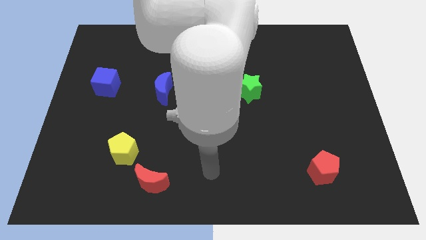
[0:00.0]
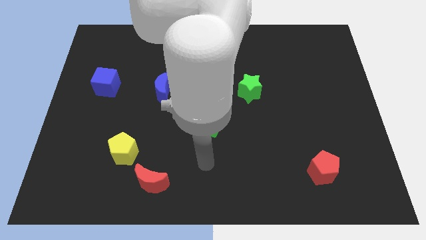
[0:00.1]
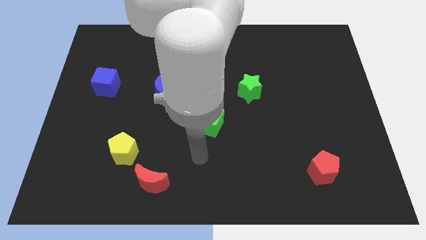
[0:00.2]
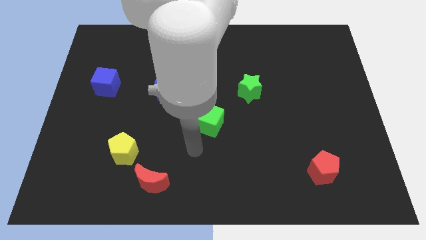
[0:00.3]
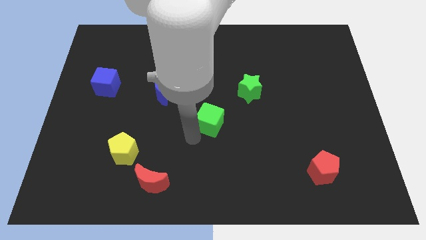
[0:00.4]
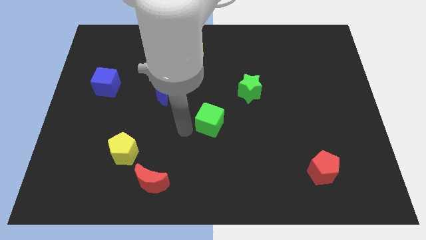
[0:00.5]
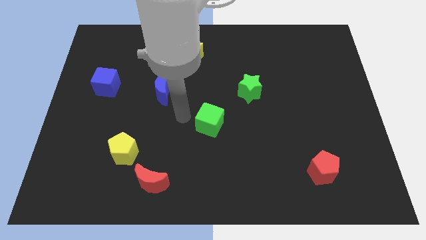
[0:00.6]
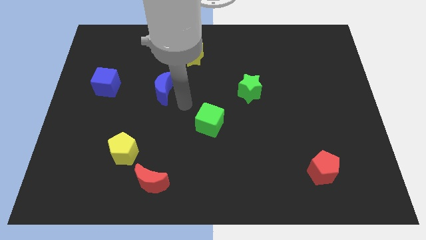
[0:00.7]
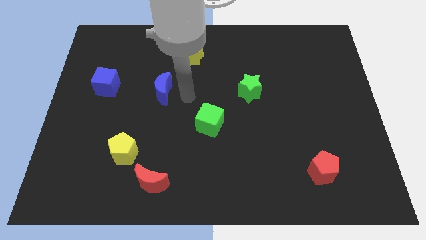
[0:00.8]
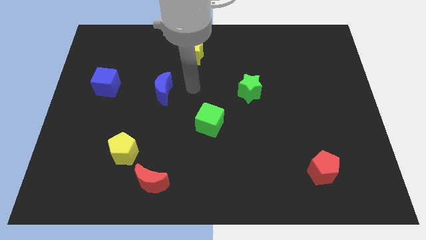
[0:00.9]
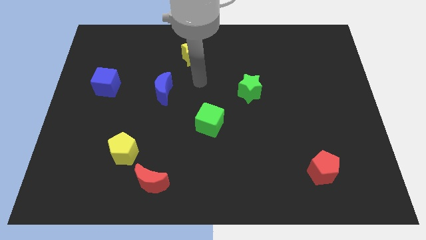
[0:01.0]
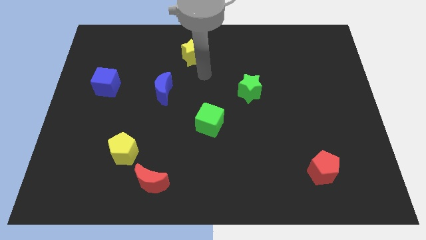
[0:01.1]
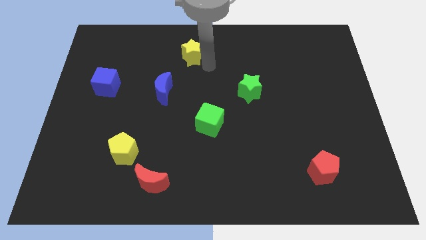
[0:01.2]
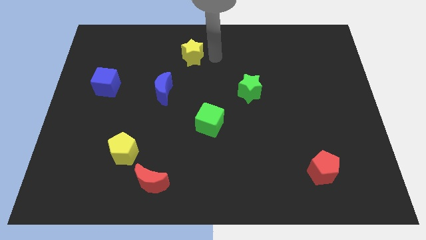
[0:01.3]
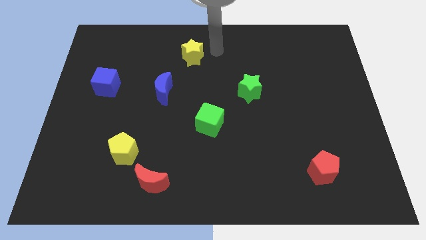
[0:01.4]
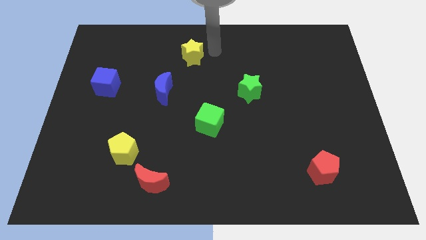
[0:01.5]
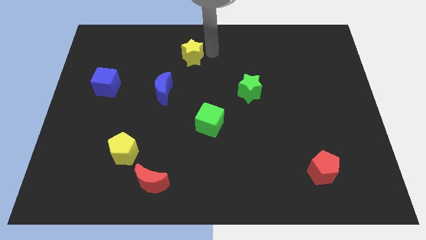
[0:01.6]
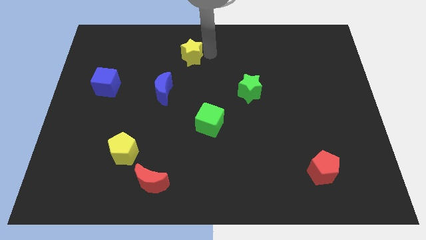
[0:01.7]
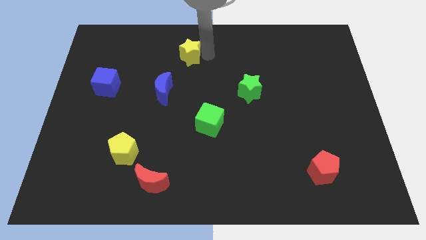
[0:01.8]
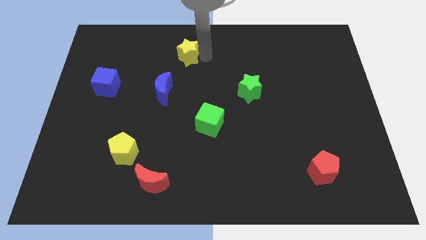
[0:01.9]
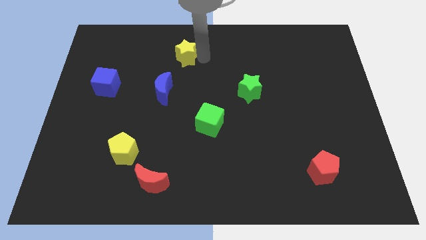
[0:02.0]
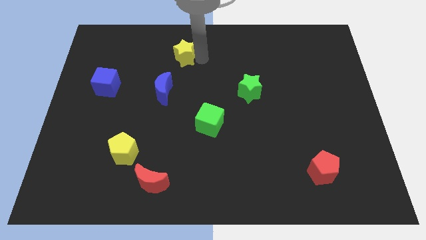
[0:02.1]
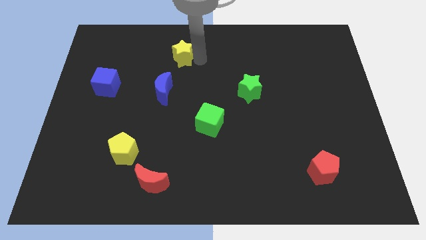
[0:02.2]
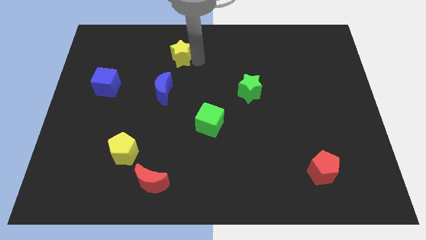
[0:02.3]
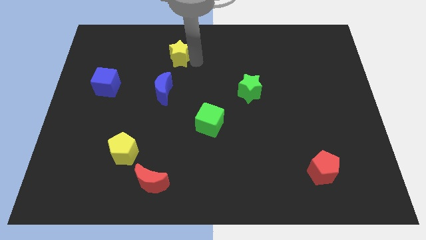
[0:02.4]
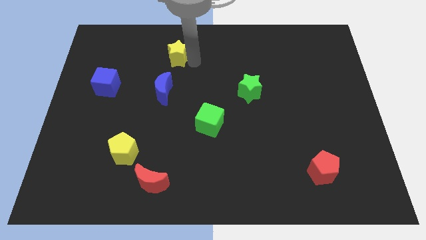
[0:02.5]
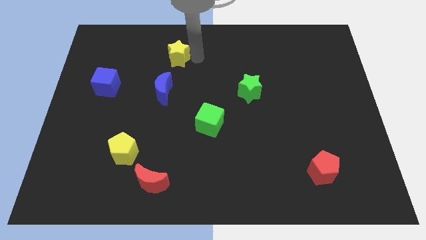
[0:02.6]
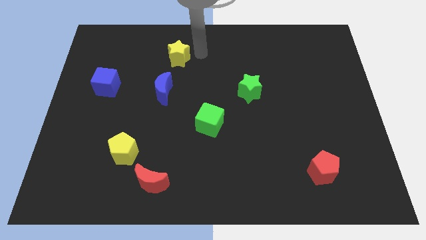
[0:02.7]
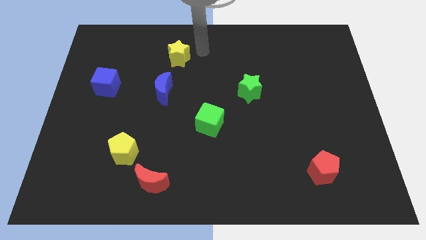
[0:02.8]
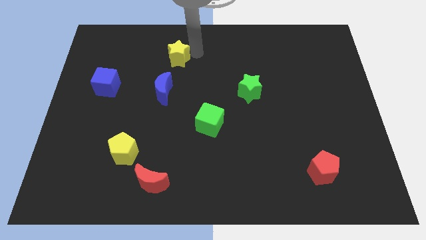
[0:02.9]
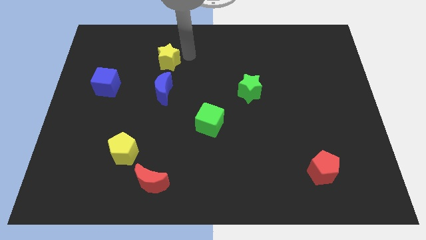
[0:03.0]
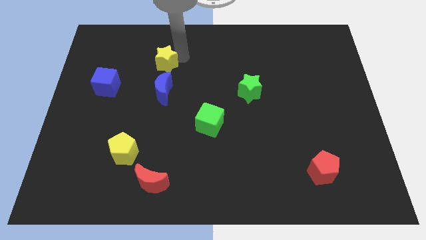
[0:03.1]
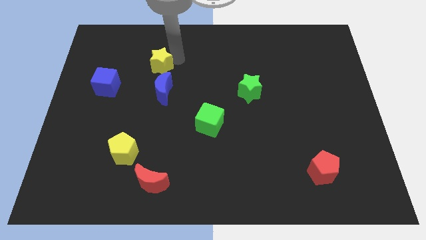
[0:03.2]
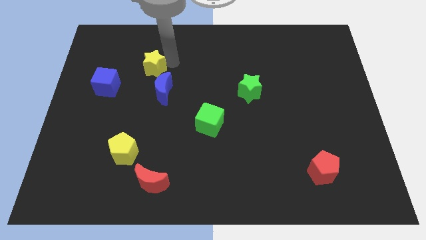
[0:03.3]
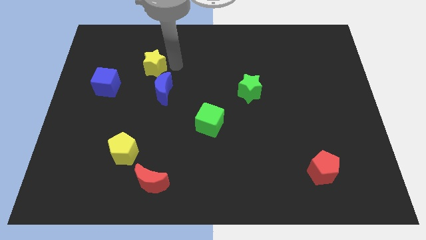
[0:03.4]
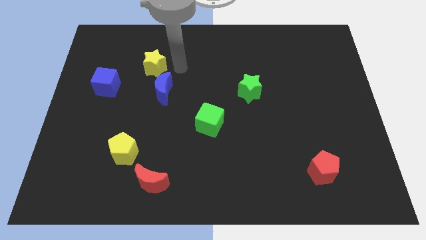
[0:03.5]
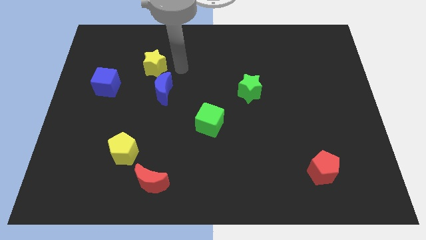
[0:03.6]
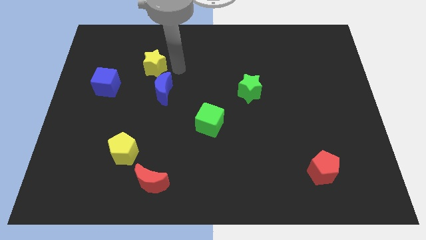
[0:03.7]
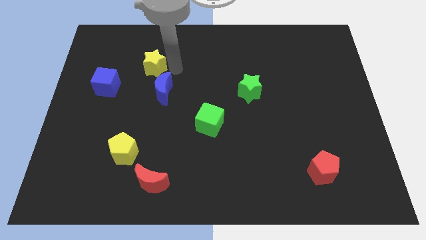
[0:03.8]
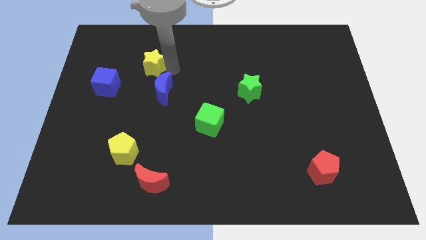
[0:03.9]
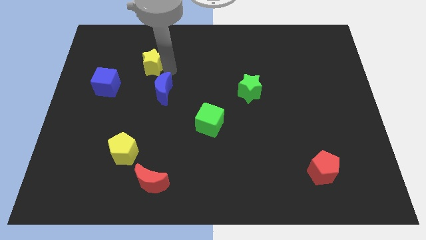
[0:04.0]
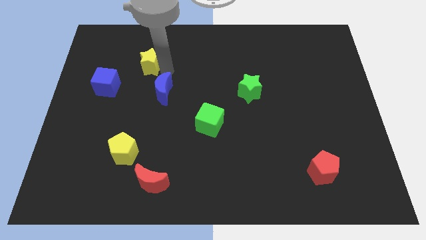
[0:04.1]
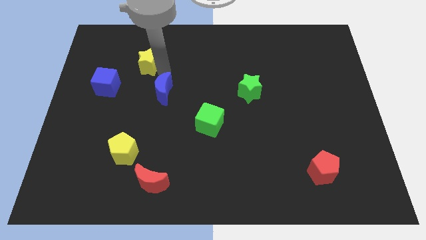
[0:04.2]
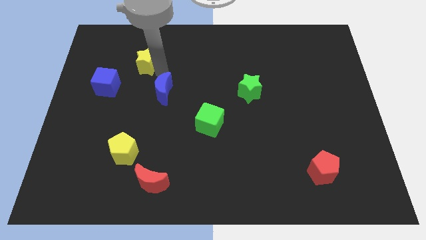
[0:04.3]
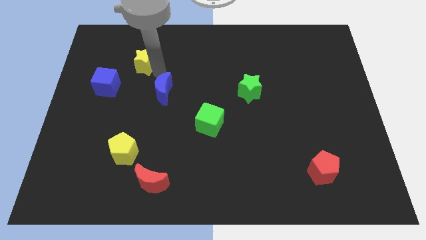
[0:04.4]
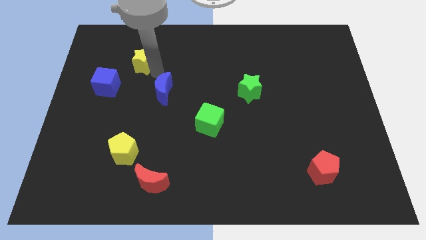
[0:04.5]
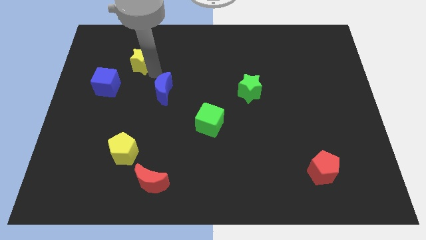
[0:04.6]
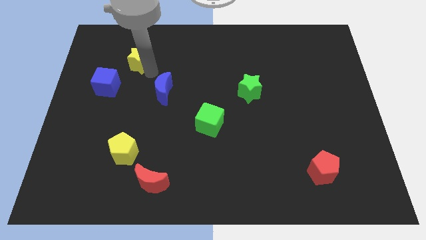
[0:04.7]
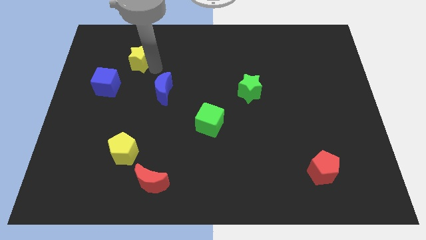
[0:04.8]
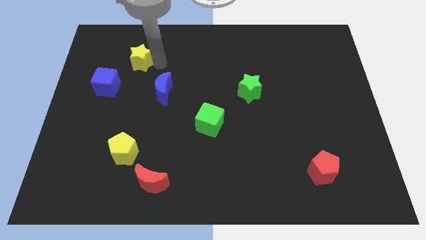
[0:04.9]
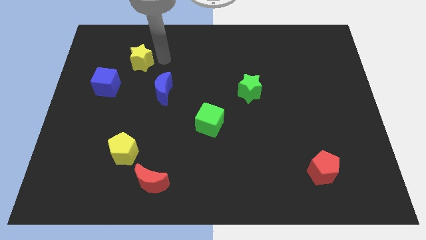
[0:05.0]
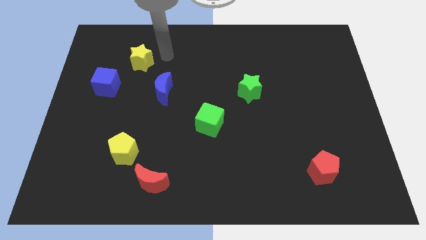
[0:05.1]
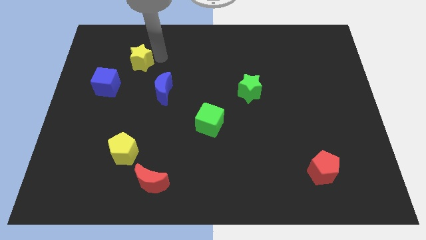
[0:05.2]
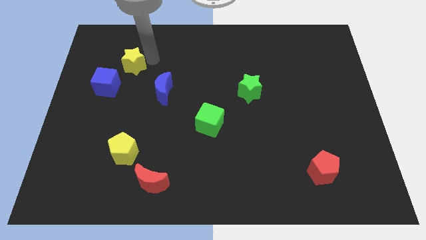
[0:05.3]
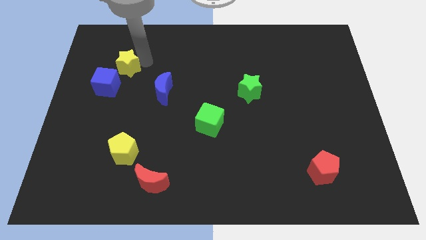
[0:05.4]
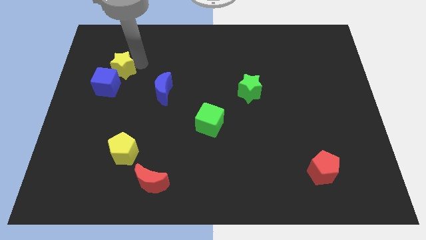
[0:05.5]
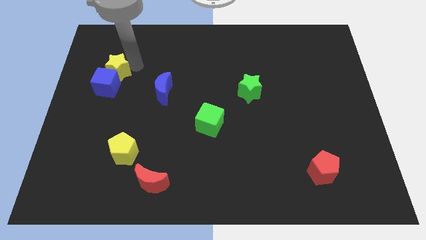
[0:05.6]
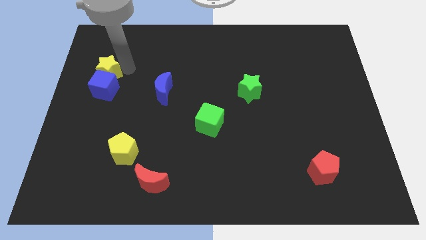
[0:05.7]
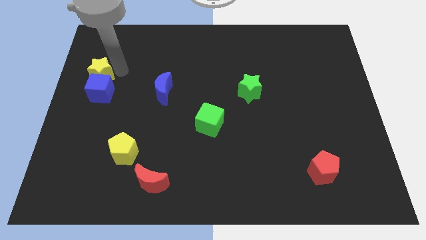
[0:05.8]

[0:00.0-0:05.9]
slide the yellow star to the left side of the board
